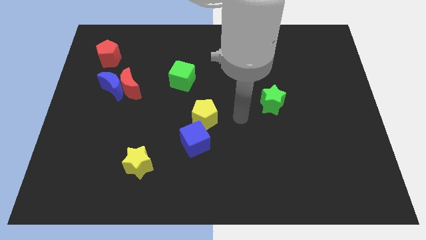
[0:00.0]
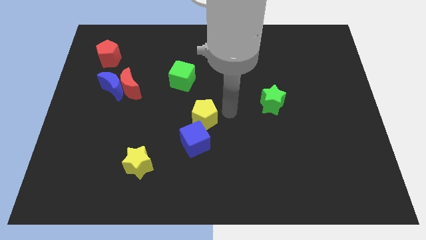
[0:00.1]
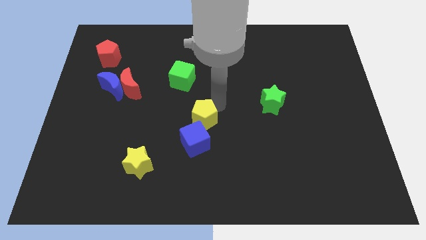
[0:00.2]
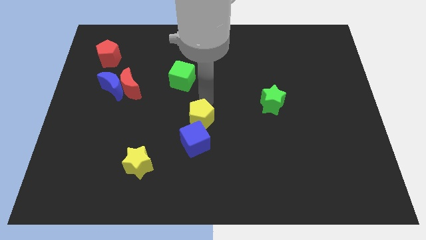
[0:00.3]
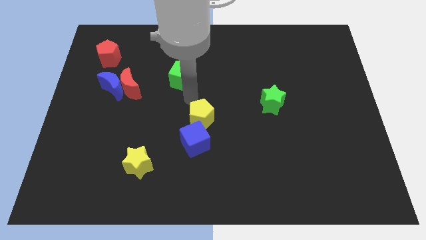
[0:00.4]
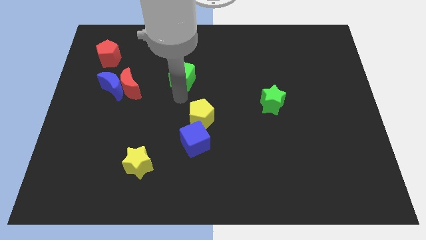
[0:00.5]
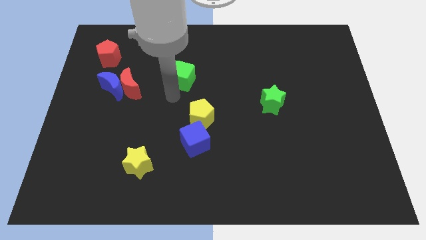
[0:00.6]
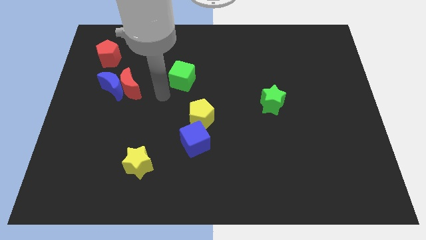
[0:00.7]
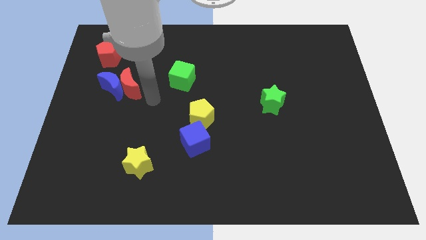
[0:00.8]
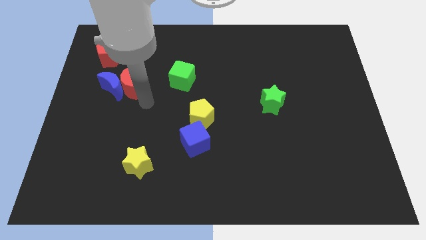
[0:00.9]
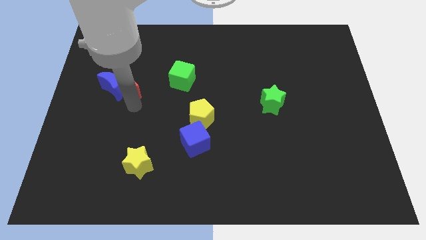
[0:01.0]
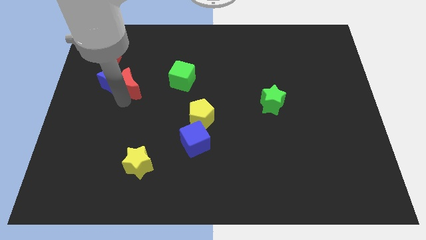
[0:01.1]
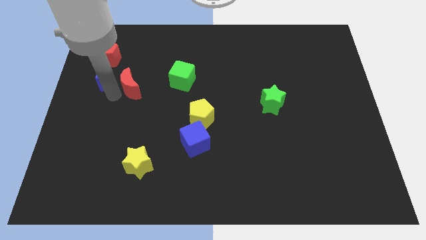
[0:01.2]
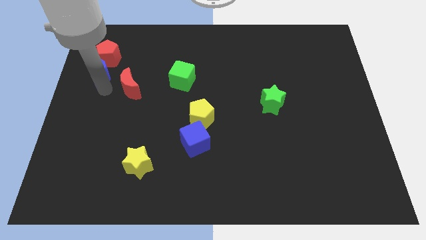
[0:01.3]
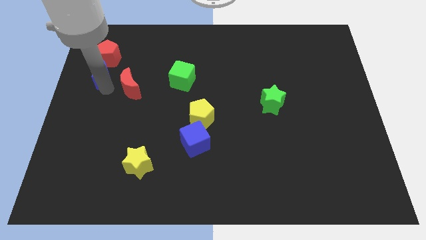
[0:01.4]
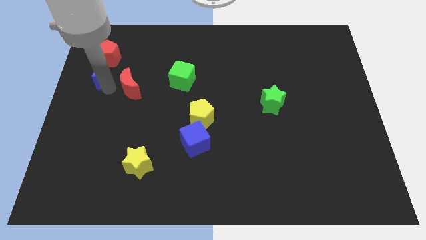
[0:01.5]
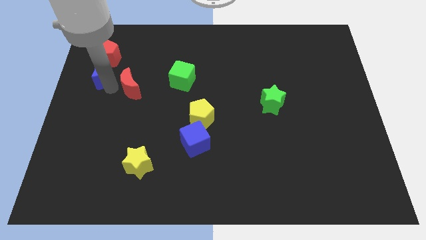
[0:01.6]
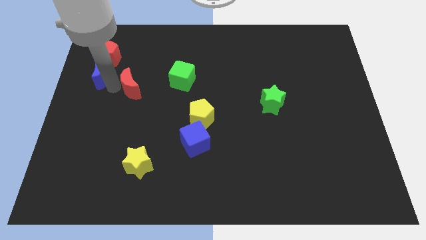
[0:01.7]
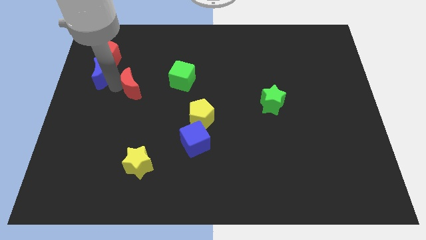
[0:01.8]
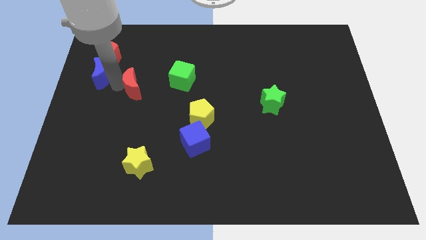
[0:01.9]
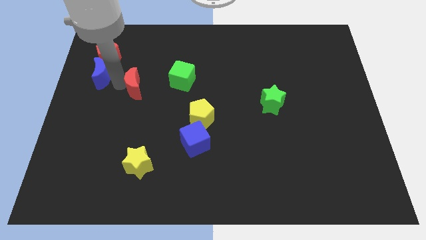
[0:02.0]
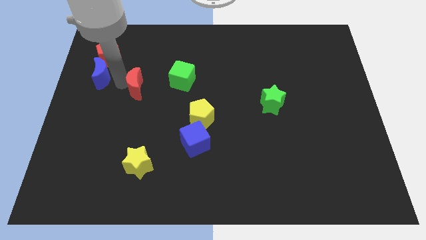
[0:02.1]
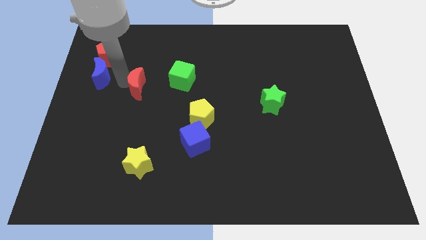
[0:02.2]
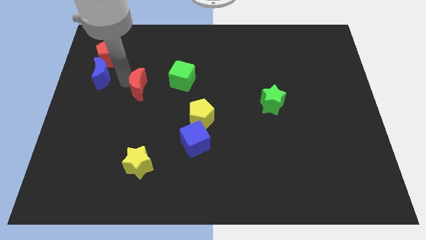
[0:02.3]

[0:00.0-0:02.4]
pull the red moon apart from the blue moon

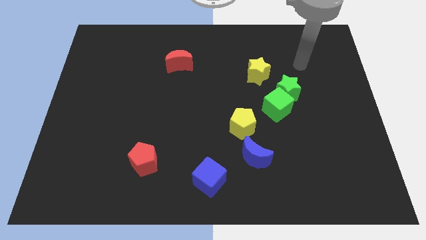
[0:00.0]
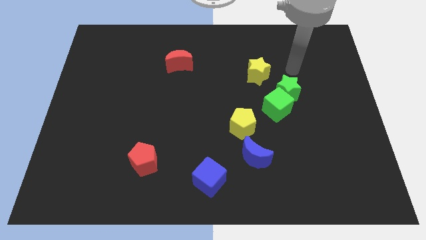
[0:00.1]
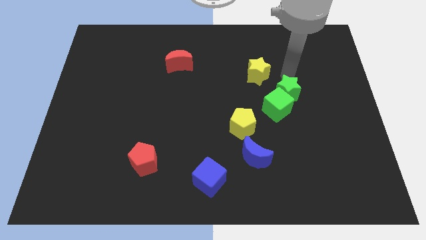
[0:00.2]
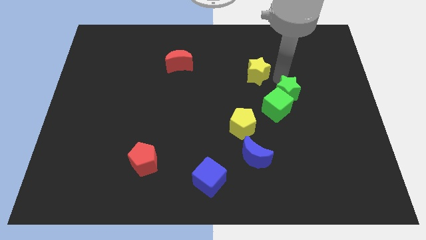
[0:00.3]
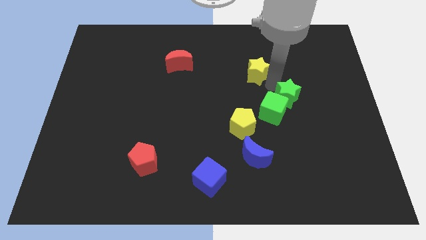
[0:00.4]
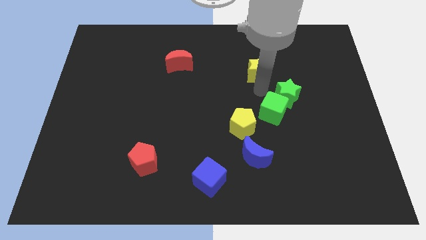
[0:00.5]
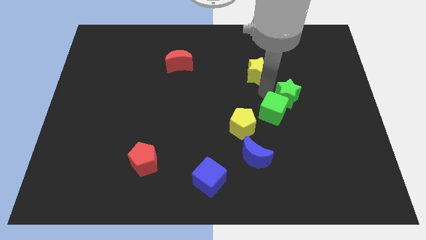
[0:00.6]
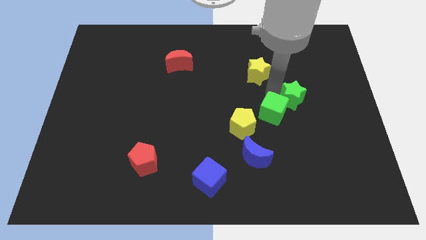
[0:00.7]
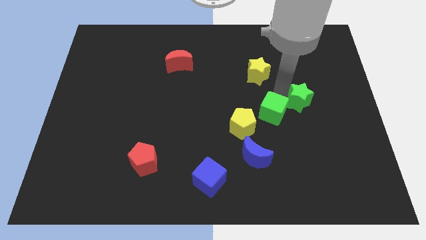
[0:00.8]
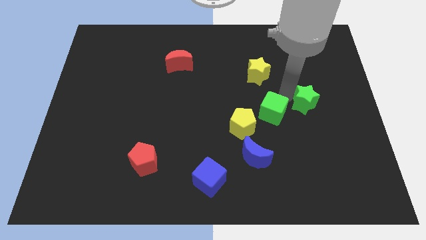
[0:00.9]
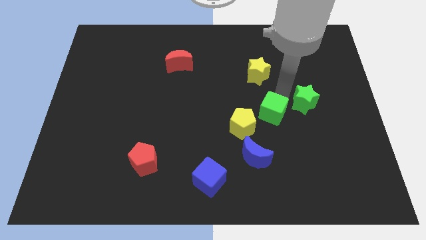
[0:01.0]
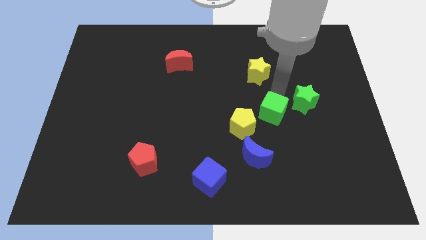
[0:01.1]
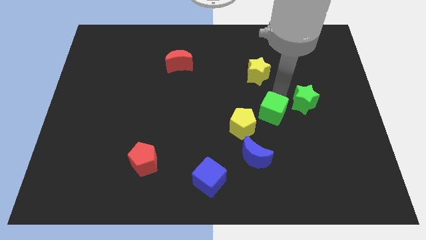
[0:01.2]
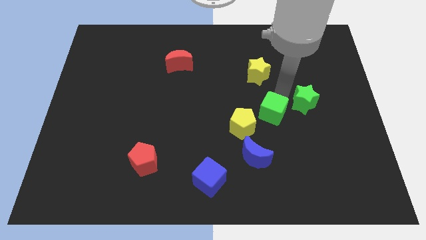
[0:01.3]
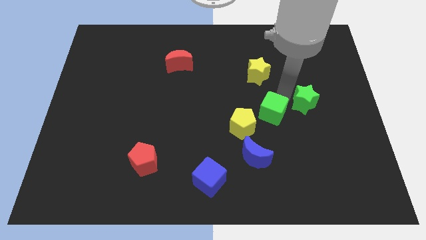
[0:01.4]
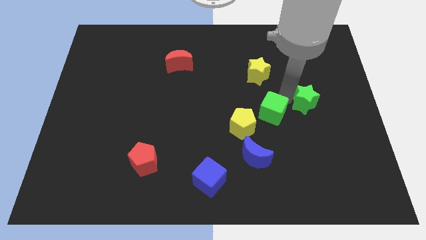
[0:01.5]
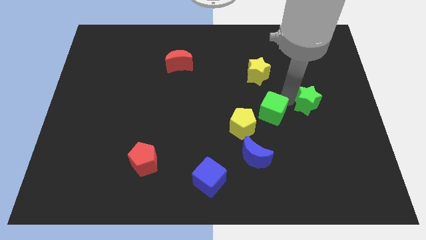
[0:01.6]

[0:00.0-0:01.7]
move the green star away from the green cube and yellow star

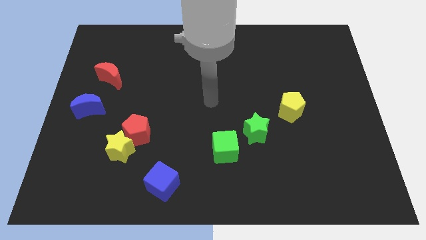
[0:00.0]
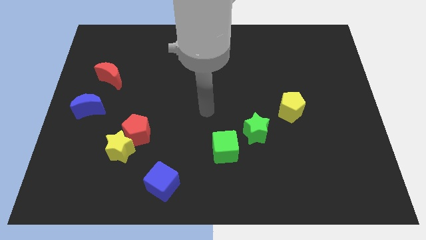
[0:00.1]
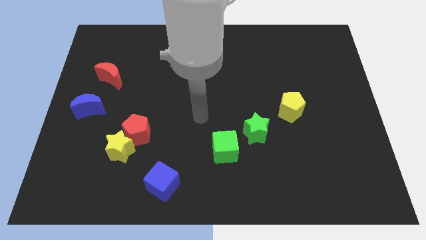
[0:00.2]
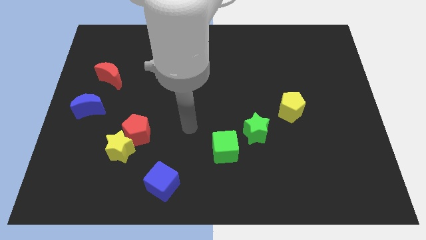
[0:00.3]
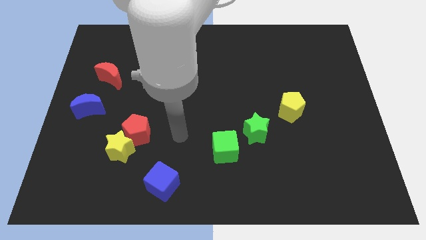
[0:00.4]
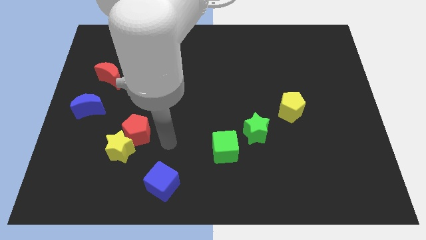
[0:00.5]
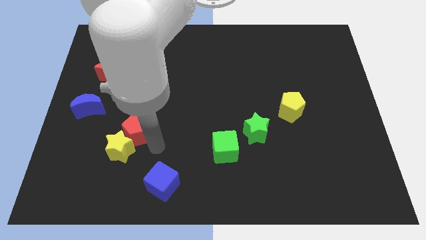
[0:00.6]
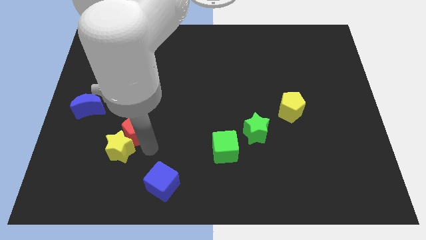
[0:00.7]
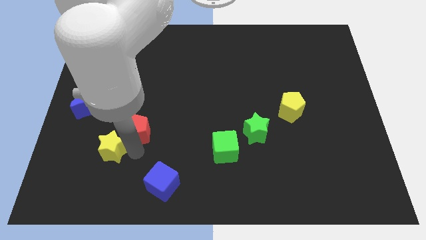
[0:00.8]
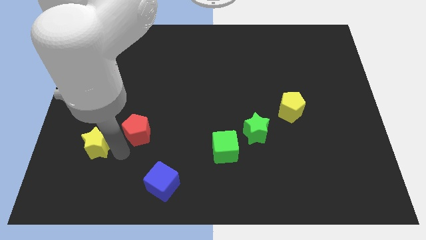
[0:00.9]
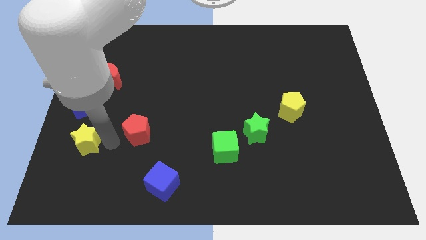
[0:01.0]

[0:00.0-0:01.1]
separate the red pentagon from the yellow star

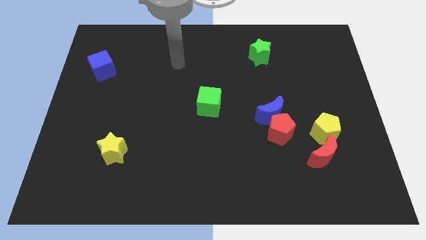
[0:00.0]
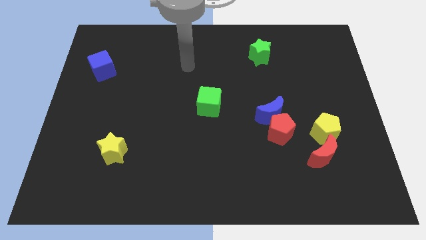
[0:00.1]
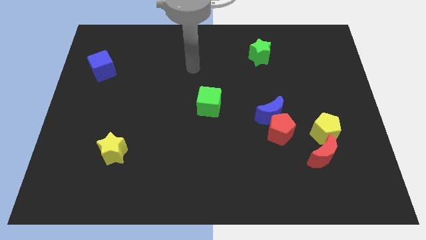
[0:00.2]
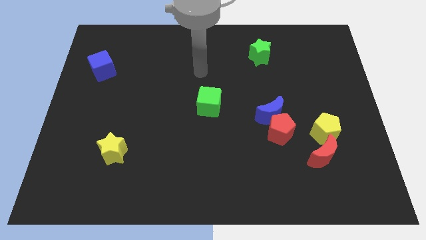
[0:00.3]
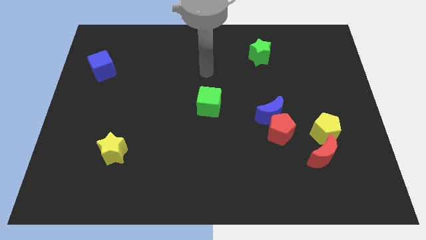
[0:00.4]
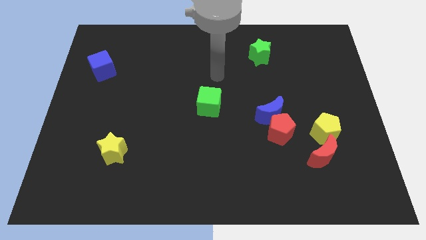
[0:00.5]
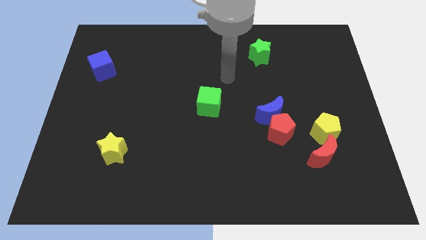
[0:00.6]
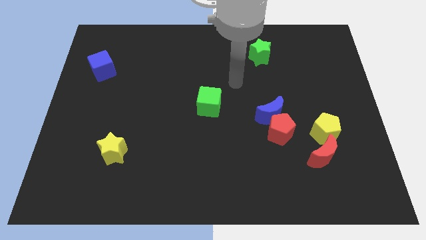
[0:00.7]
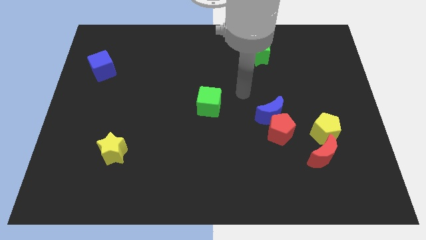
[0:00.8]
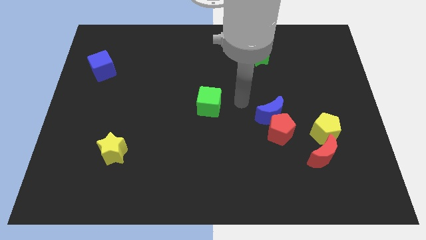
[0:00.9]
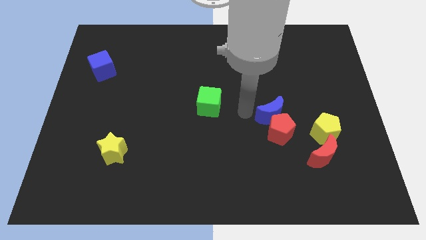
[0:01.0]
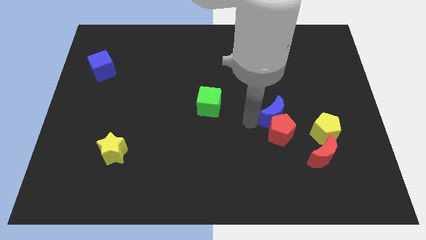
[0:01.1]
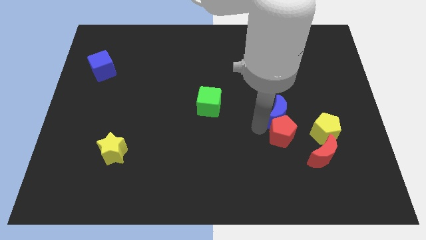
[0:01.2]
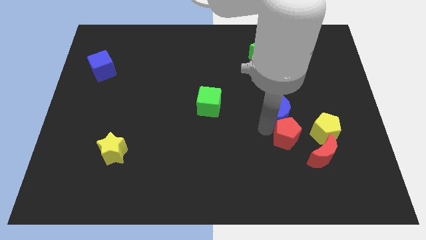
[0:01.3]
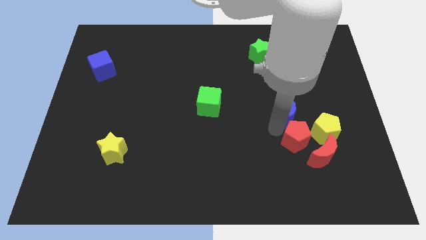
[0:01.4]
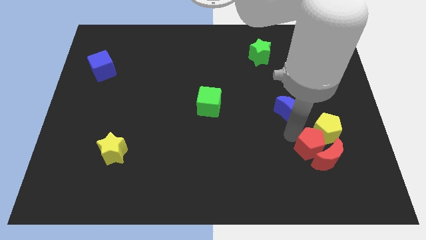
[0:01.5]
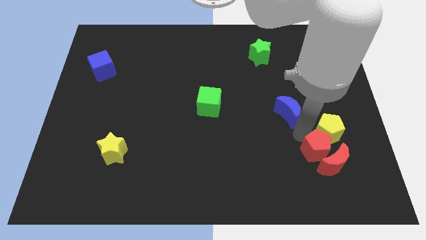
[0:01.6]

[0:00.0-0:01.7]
separate the blue moon from the red pentagon

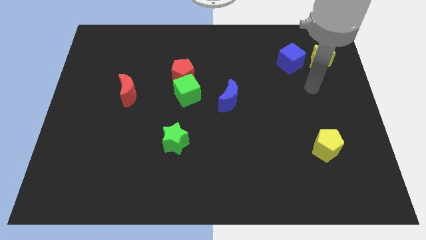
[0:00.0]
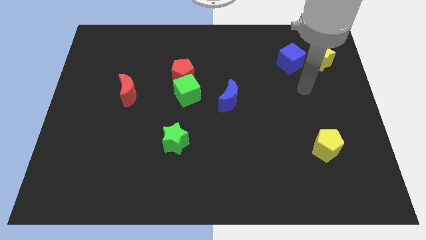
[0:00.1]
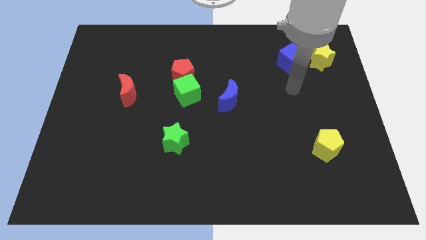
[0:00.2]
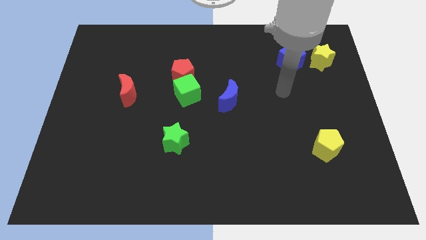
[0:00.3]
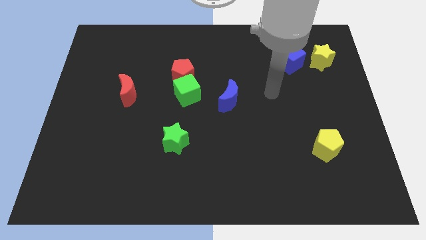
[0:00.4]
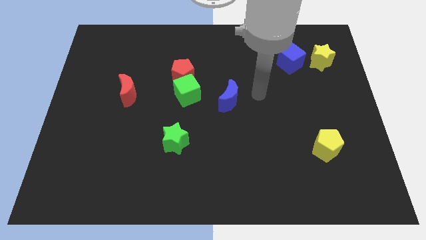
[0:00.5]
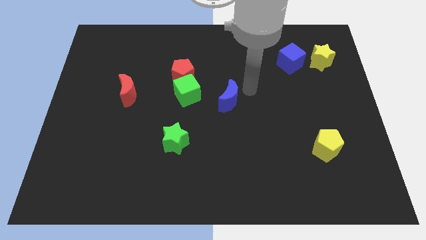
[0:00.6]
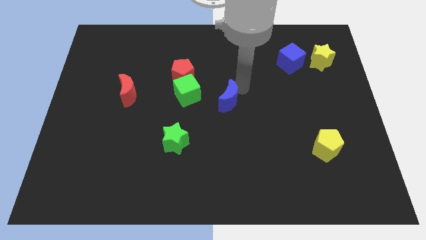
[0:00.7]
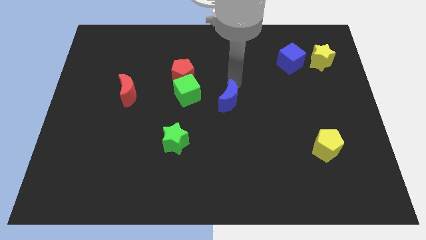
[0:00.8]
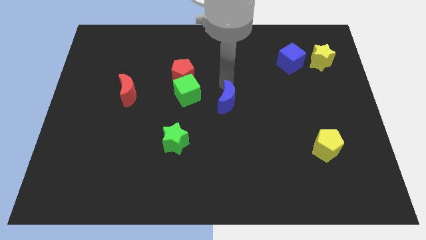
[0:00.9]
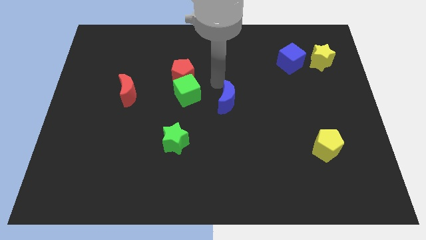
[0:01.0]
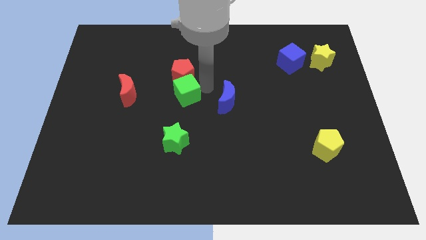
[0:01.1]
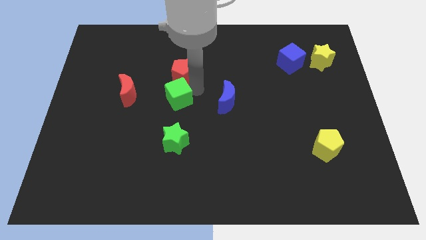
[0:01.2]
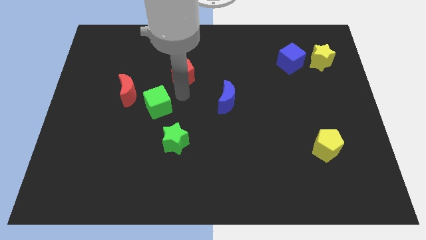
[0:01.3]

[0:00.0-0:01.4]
move the red pentagon away from the green cube

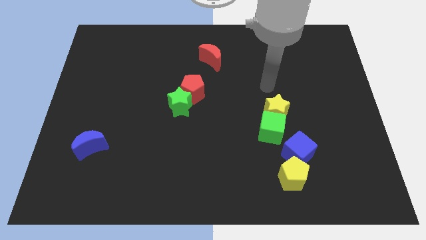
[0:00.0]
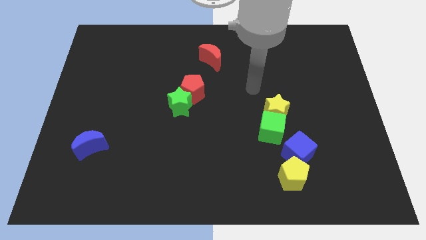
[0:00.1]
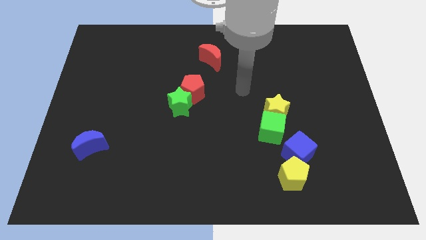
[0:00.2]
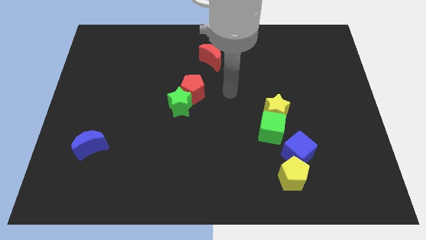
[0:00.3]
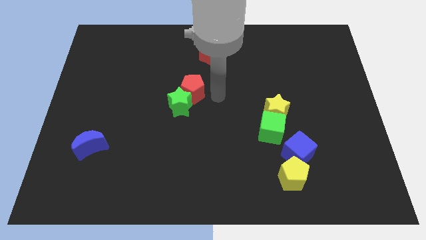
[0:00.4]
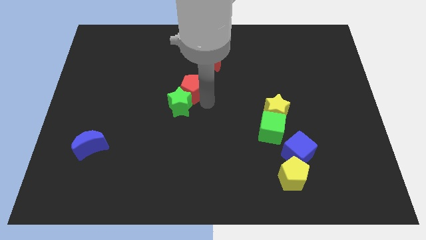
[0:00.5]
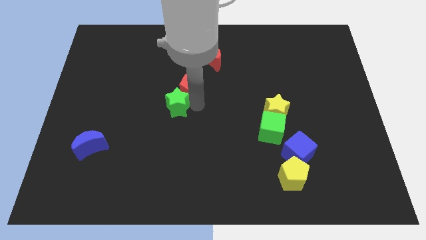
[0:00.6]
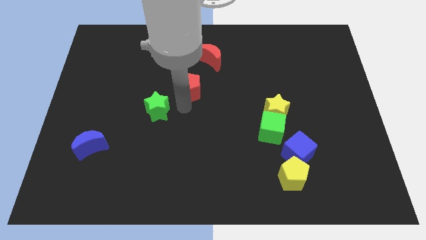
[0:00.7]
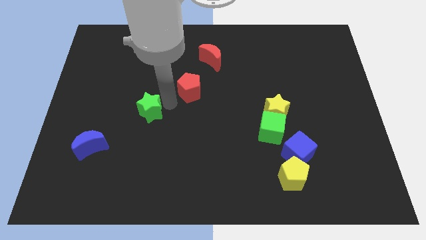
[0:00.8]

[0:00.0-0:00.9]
move the red pentagon away from the green star
